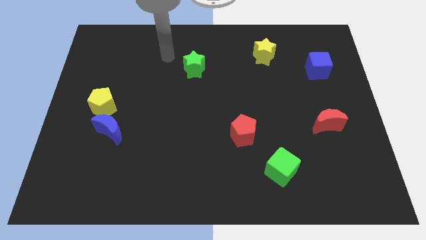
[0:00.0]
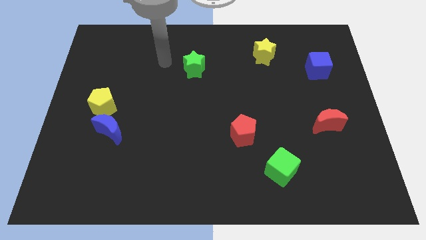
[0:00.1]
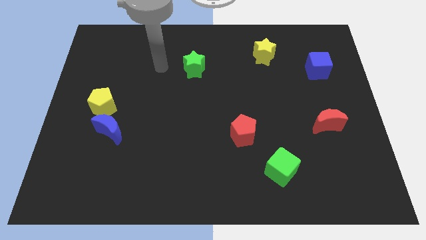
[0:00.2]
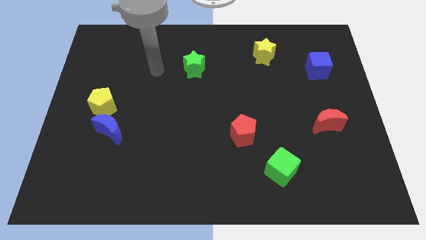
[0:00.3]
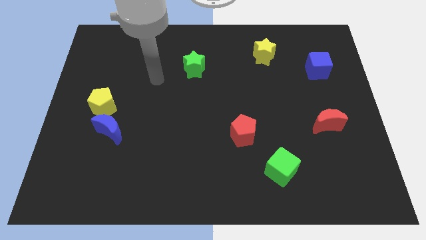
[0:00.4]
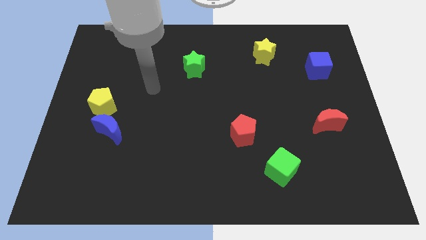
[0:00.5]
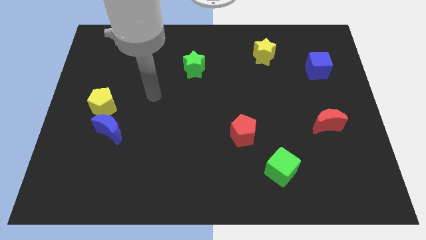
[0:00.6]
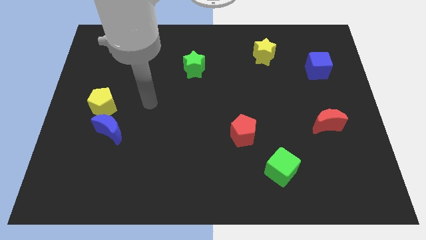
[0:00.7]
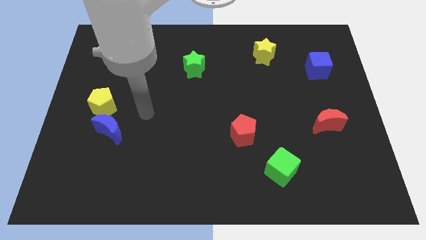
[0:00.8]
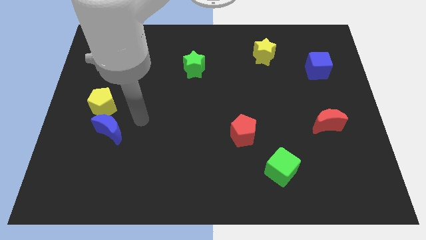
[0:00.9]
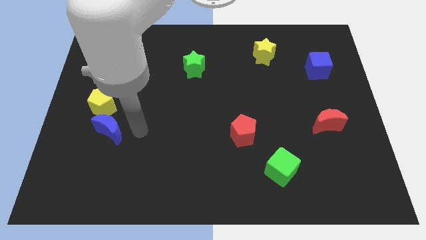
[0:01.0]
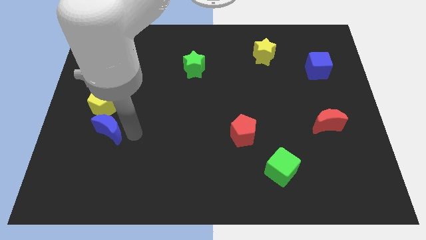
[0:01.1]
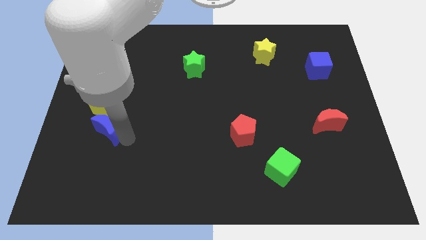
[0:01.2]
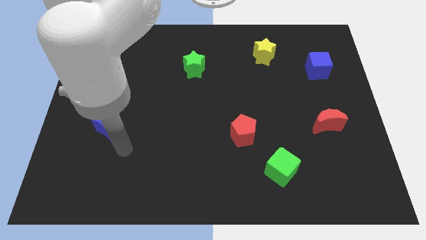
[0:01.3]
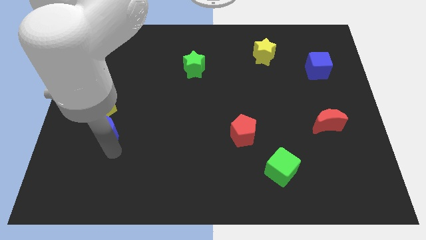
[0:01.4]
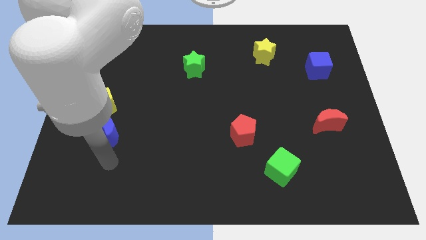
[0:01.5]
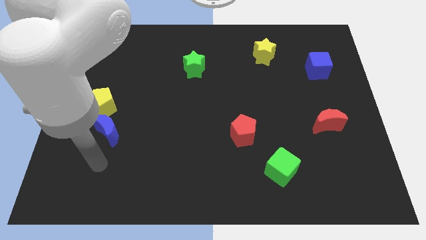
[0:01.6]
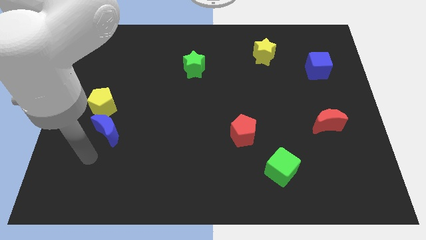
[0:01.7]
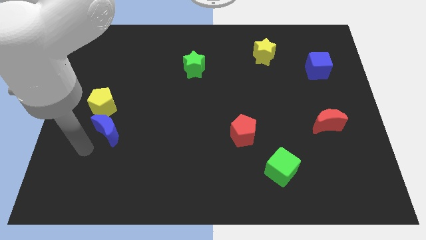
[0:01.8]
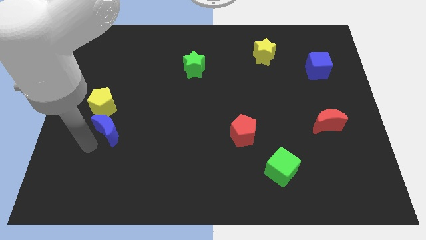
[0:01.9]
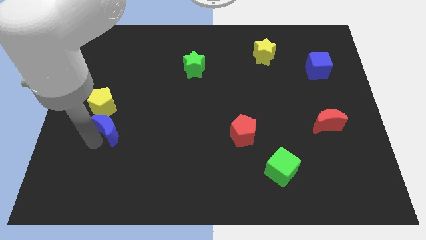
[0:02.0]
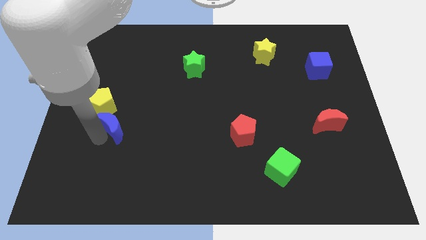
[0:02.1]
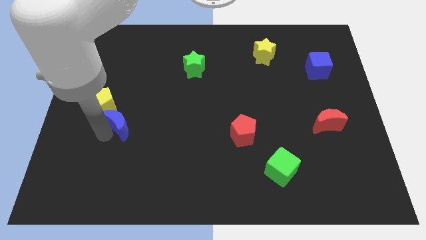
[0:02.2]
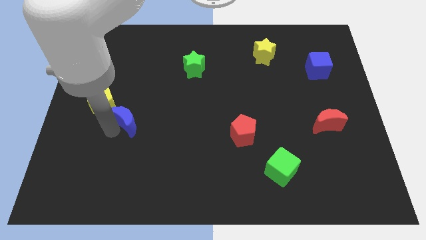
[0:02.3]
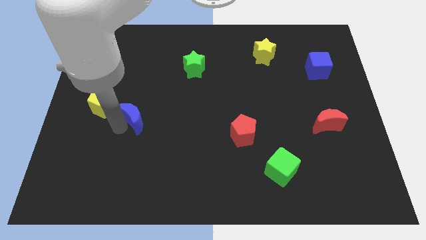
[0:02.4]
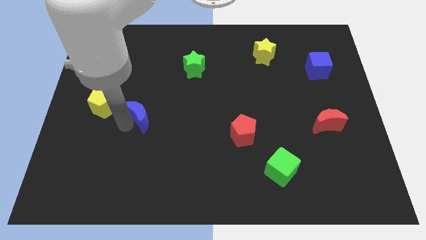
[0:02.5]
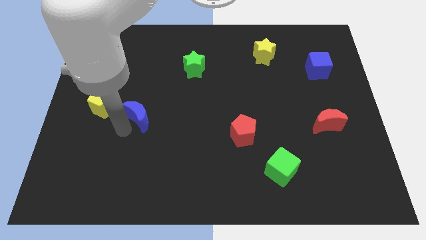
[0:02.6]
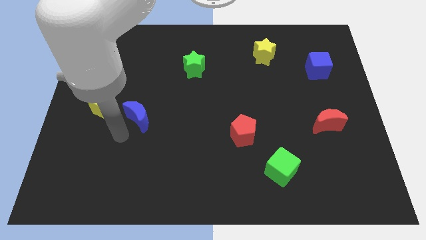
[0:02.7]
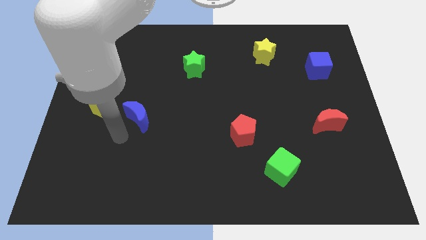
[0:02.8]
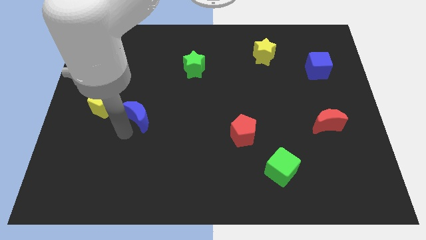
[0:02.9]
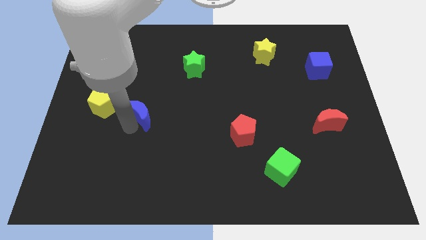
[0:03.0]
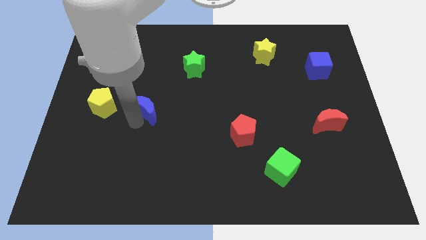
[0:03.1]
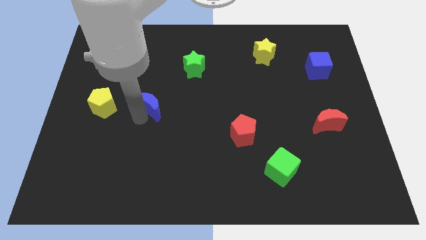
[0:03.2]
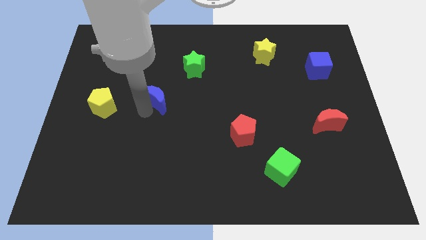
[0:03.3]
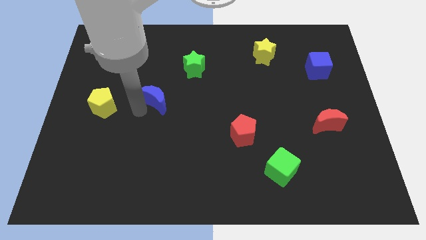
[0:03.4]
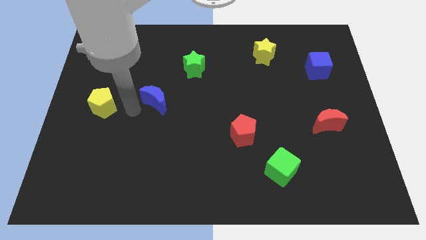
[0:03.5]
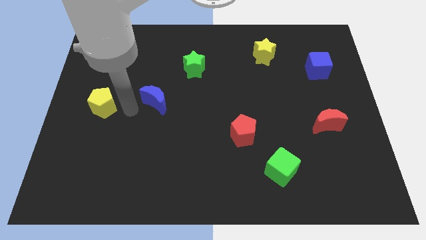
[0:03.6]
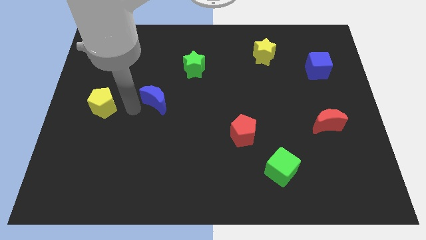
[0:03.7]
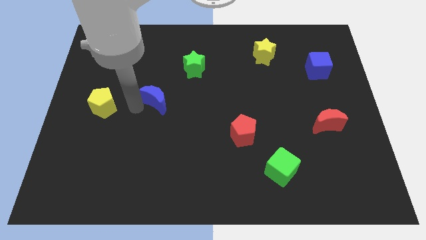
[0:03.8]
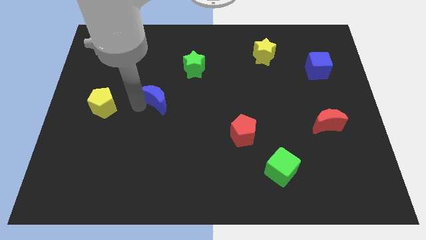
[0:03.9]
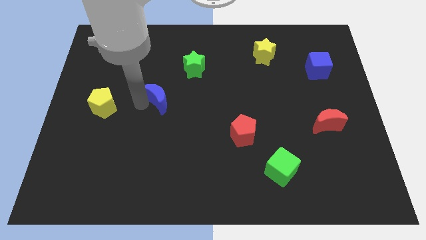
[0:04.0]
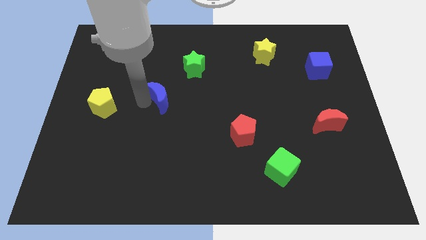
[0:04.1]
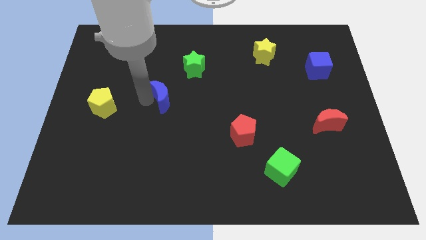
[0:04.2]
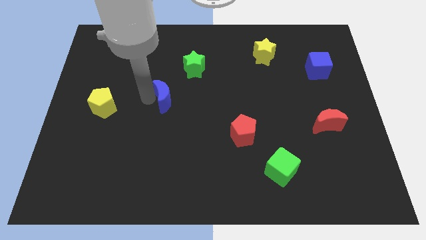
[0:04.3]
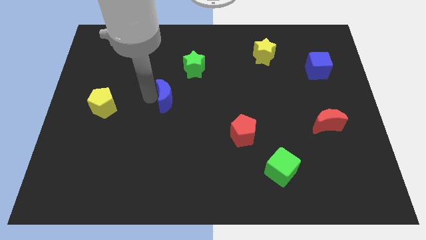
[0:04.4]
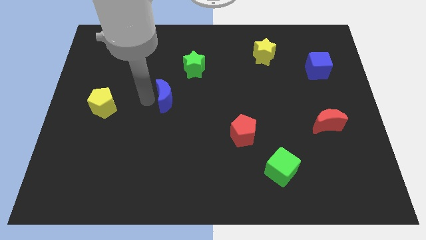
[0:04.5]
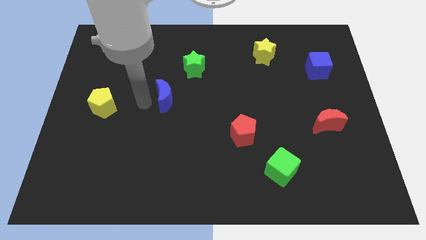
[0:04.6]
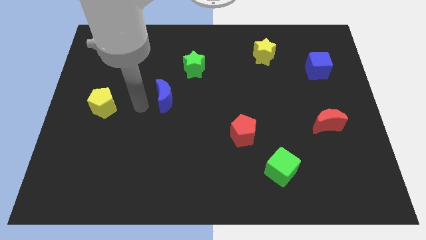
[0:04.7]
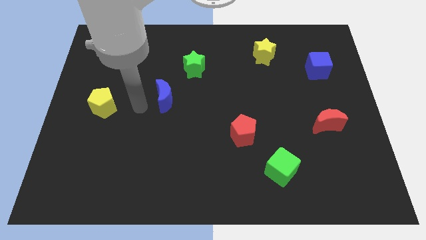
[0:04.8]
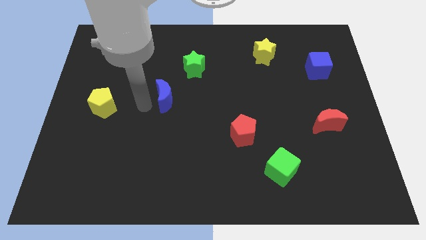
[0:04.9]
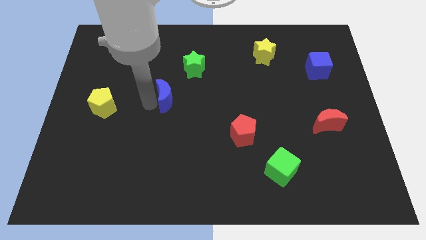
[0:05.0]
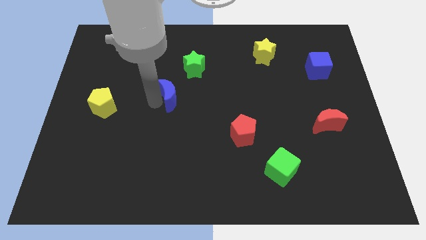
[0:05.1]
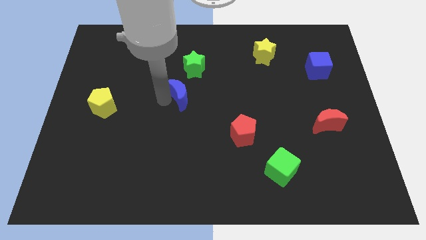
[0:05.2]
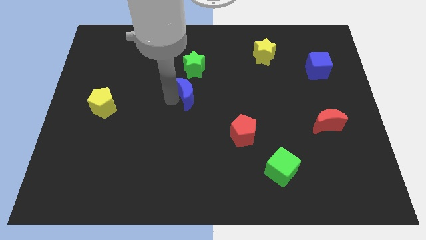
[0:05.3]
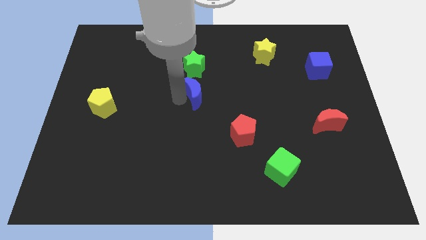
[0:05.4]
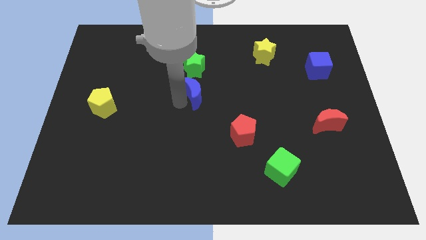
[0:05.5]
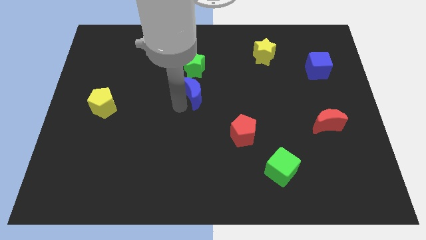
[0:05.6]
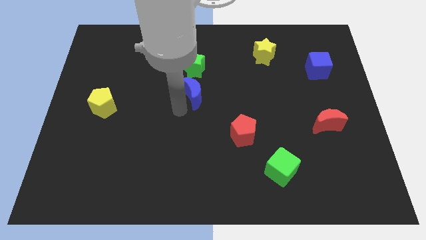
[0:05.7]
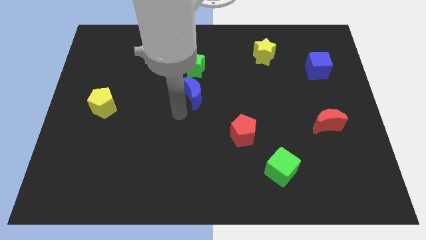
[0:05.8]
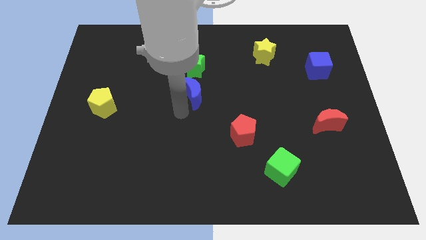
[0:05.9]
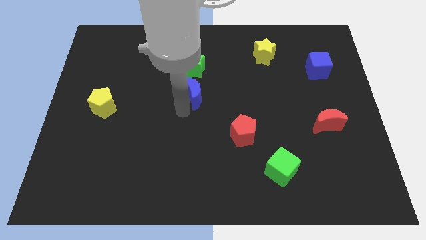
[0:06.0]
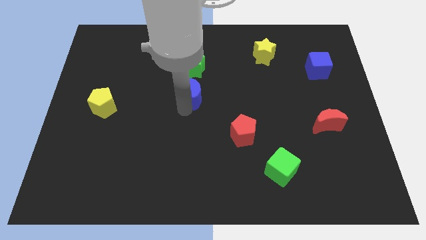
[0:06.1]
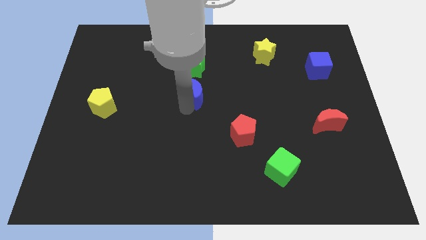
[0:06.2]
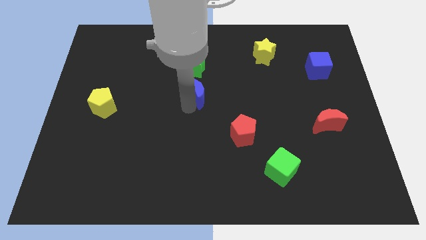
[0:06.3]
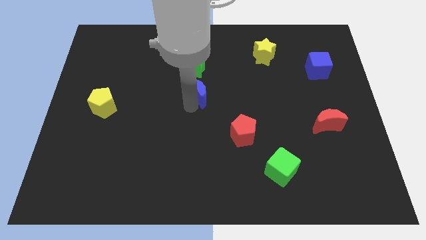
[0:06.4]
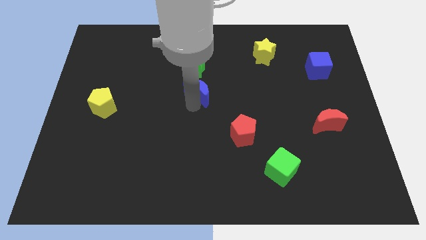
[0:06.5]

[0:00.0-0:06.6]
move the blue moon diagonally upwards and right

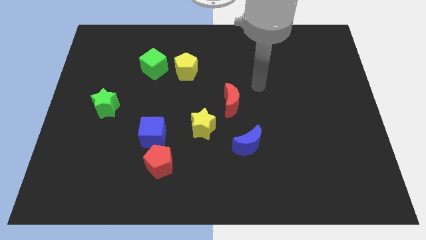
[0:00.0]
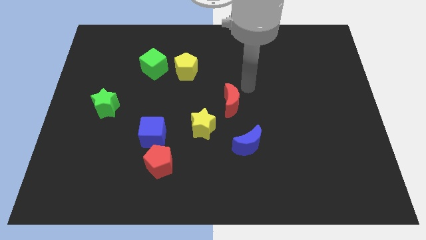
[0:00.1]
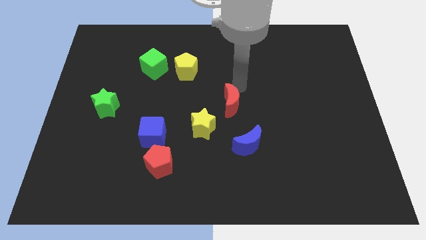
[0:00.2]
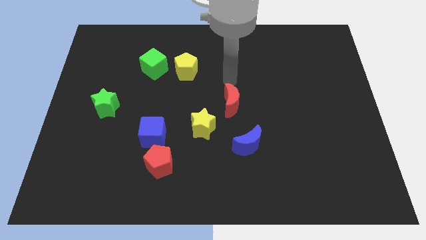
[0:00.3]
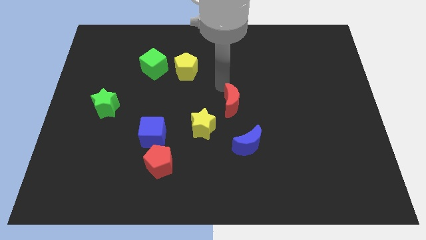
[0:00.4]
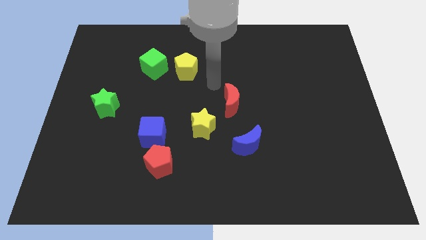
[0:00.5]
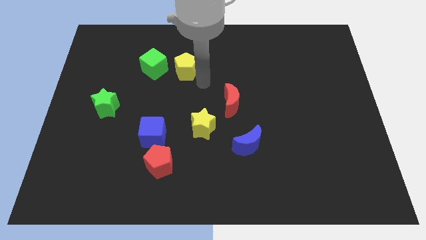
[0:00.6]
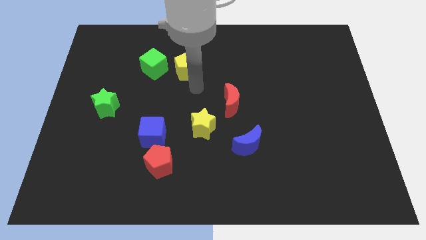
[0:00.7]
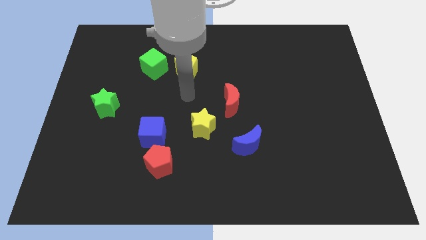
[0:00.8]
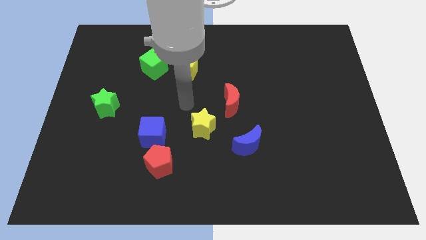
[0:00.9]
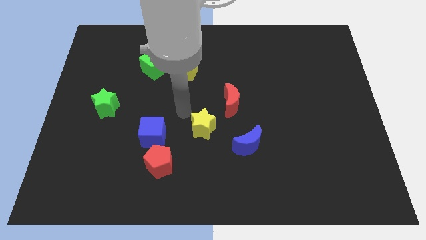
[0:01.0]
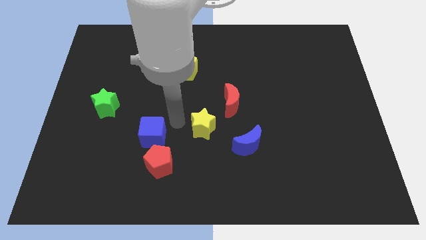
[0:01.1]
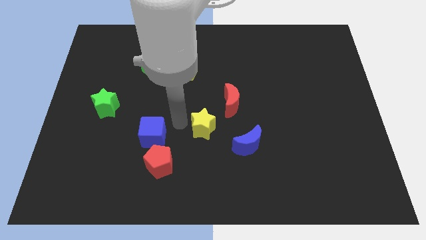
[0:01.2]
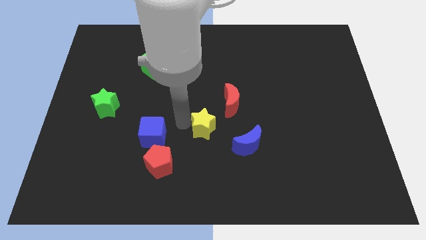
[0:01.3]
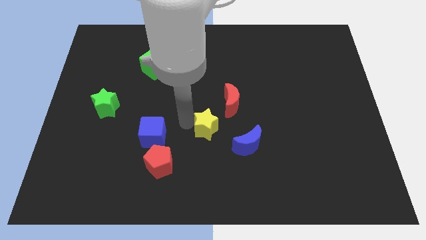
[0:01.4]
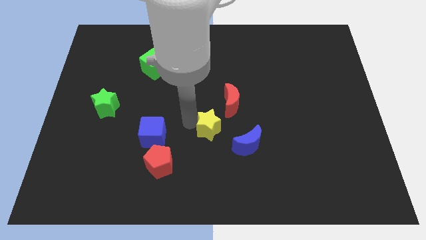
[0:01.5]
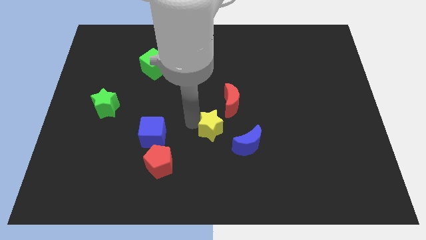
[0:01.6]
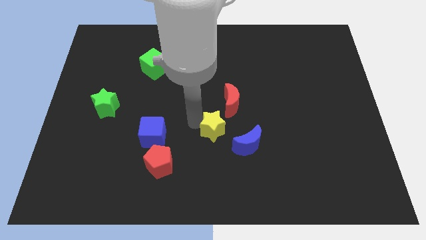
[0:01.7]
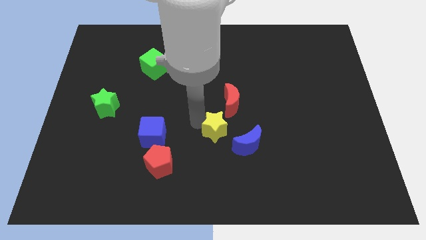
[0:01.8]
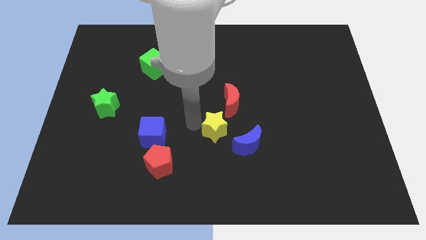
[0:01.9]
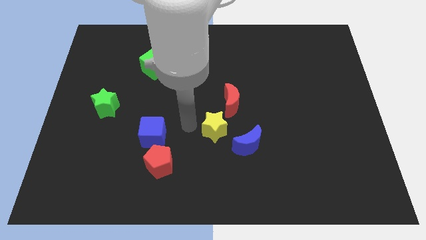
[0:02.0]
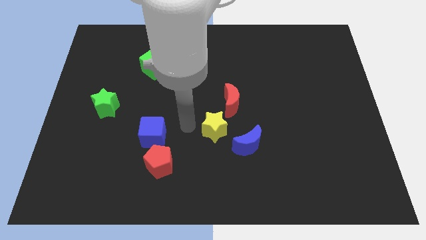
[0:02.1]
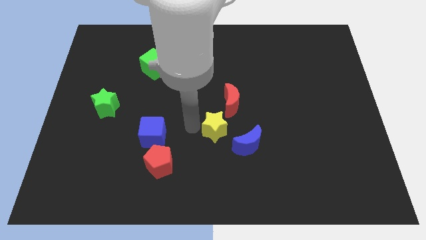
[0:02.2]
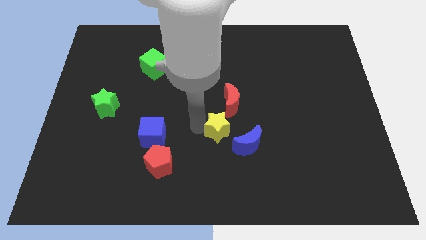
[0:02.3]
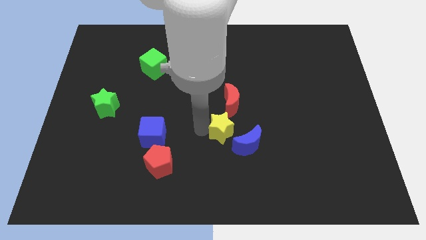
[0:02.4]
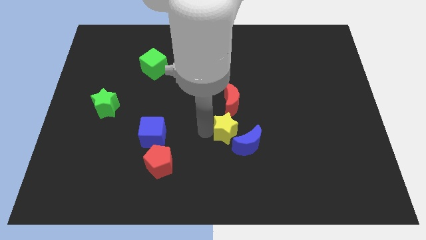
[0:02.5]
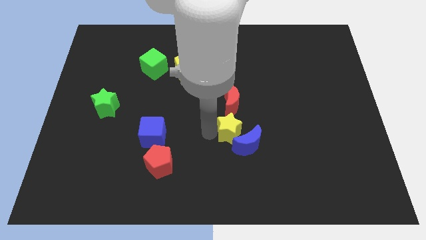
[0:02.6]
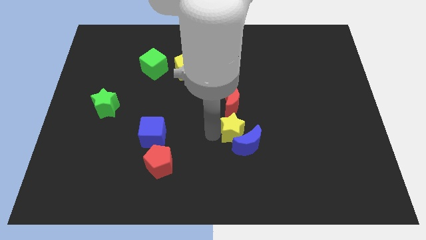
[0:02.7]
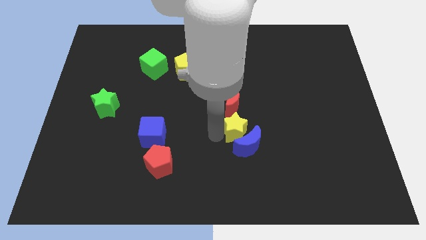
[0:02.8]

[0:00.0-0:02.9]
slightly slide the yellow star right
